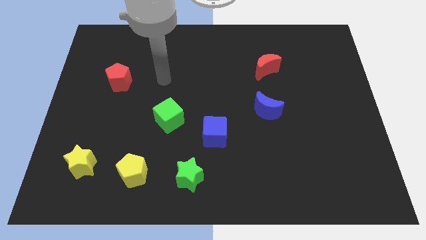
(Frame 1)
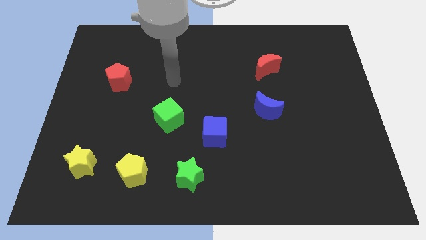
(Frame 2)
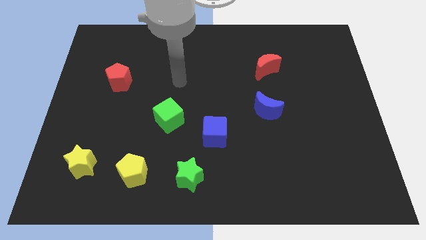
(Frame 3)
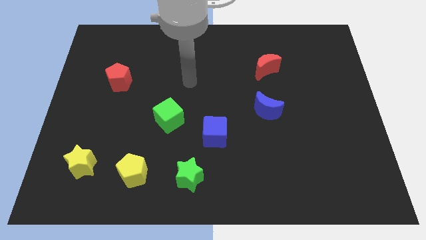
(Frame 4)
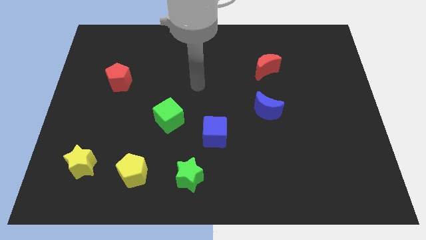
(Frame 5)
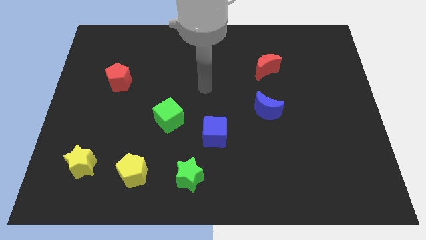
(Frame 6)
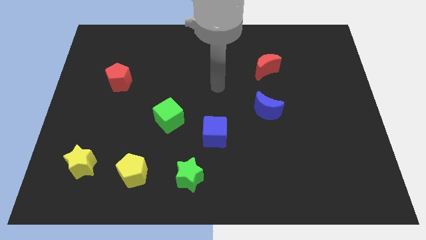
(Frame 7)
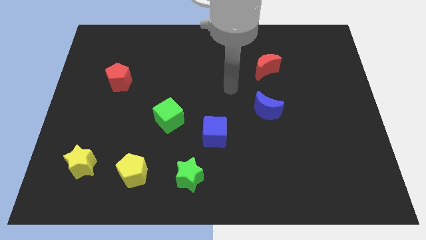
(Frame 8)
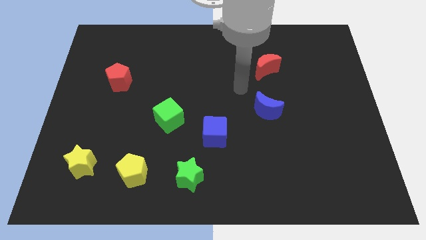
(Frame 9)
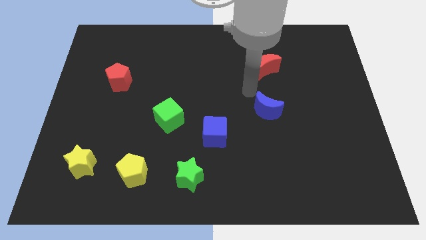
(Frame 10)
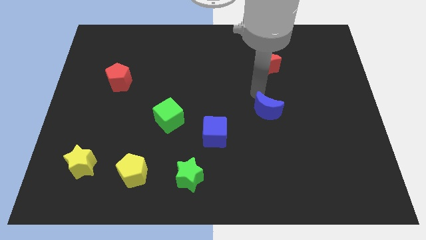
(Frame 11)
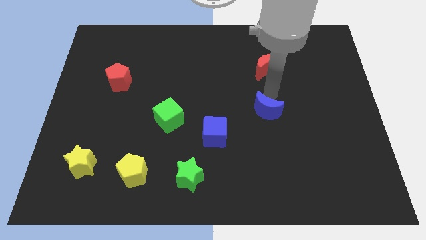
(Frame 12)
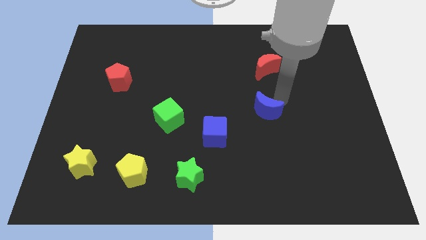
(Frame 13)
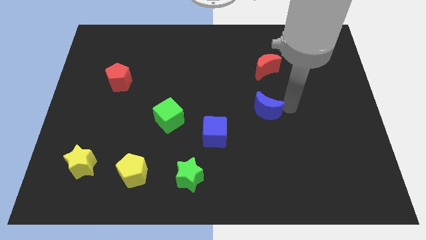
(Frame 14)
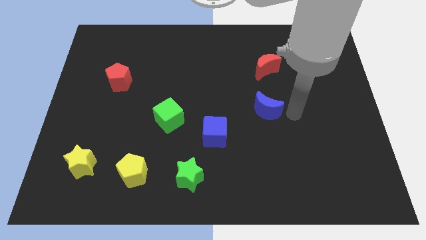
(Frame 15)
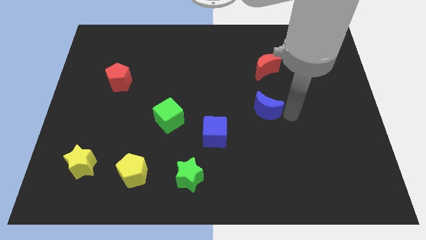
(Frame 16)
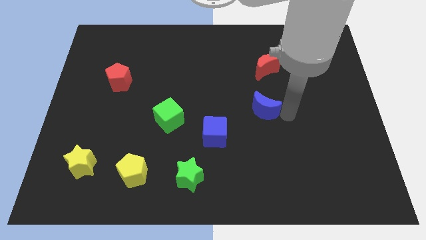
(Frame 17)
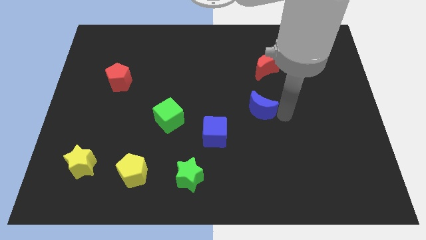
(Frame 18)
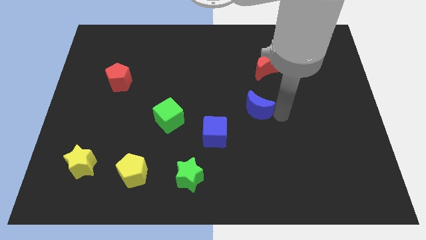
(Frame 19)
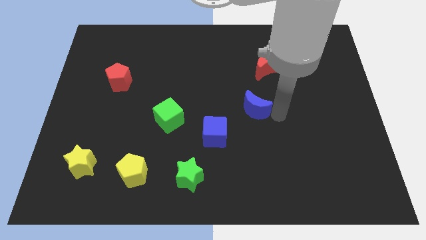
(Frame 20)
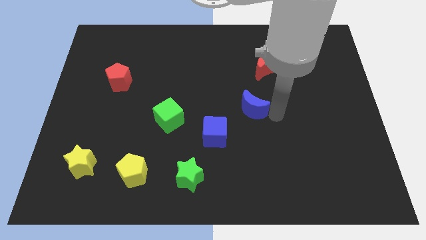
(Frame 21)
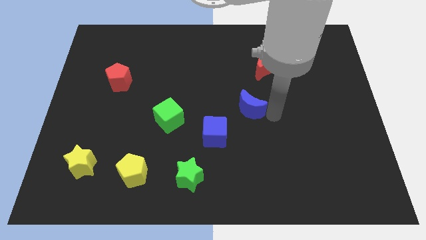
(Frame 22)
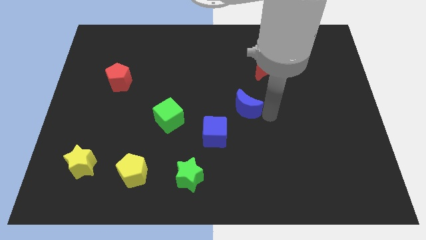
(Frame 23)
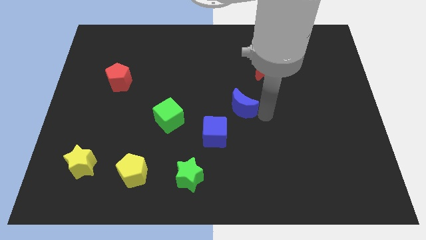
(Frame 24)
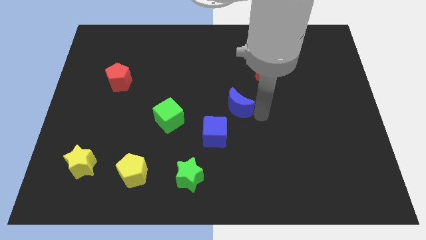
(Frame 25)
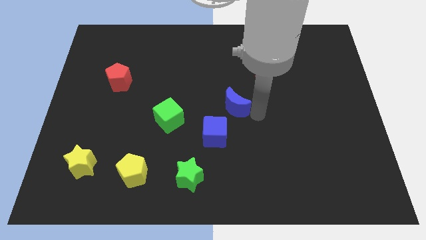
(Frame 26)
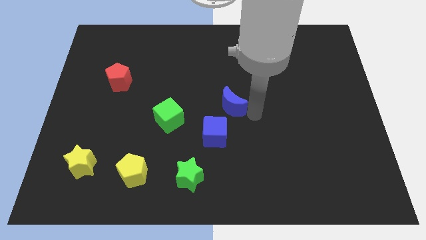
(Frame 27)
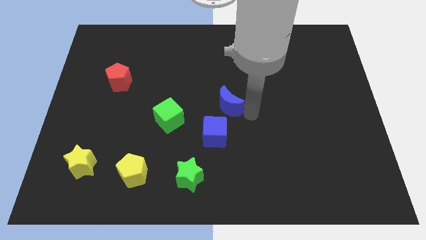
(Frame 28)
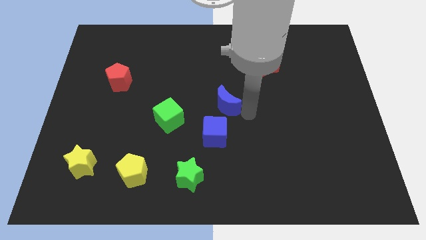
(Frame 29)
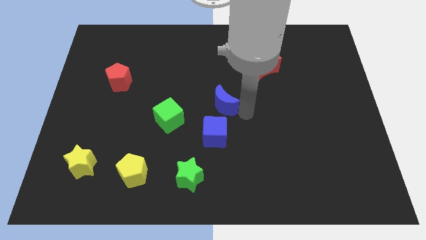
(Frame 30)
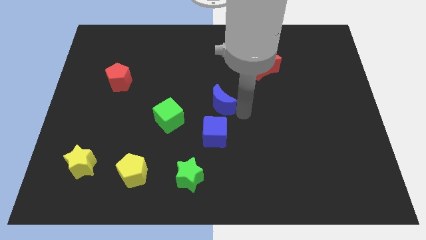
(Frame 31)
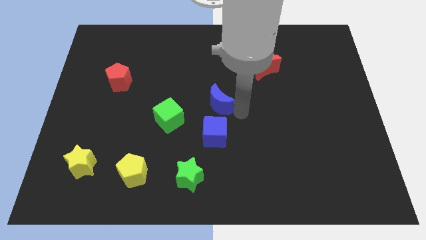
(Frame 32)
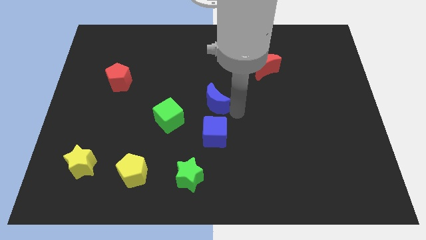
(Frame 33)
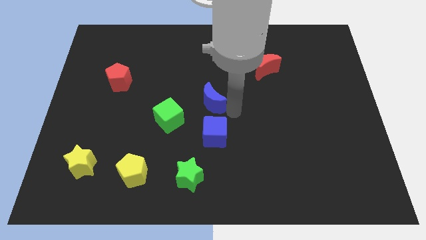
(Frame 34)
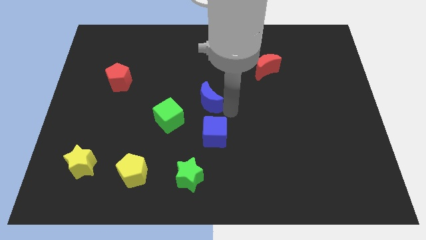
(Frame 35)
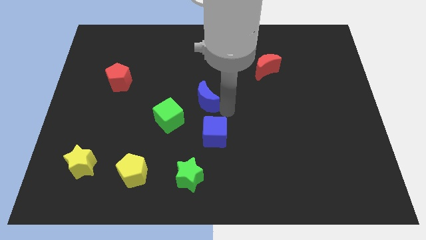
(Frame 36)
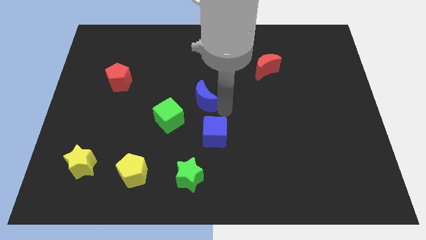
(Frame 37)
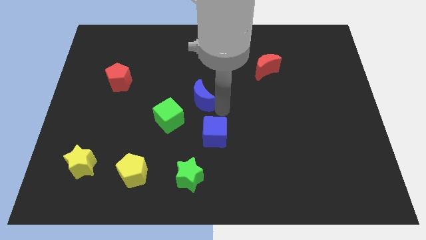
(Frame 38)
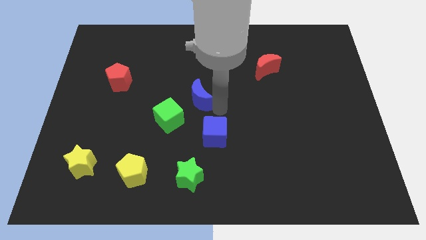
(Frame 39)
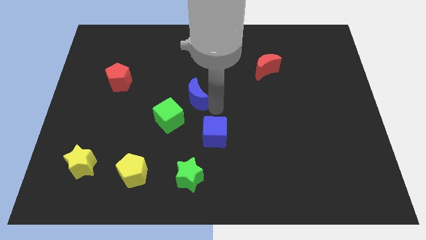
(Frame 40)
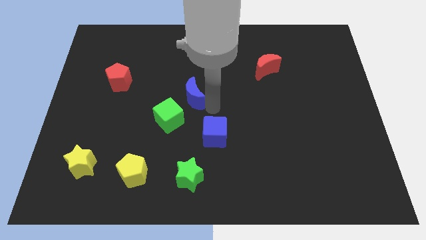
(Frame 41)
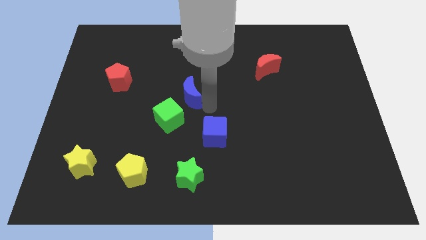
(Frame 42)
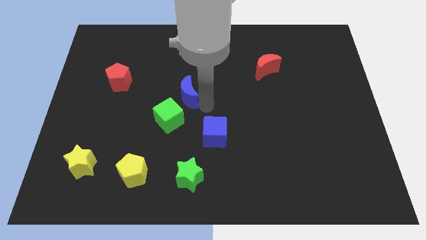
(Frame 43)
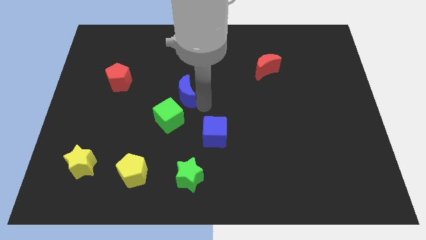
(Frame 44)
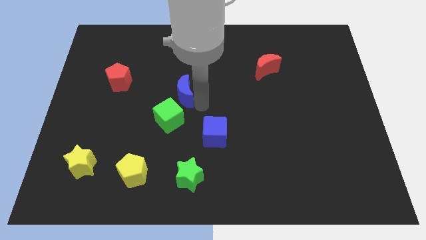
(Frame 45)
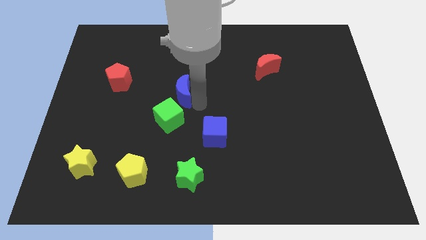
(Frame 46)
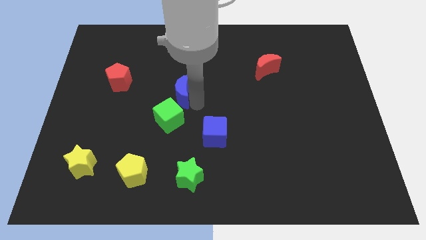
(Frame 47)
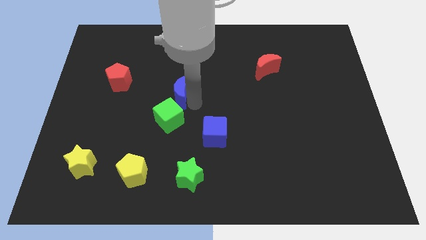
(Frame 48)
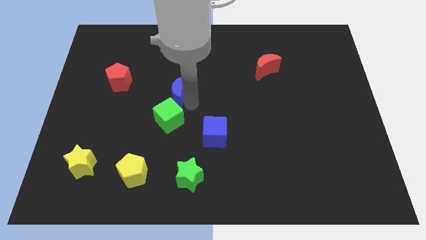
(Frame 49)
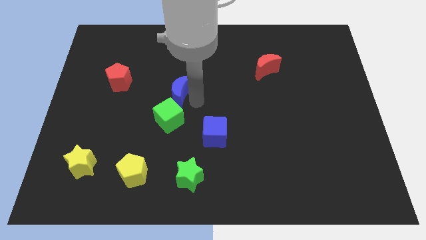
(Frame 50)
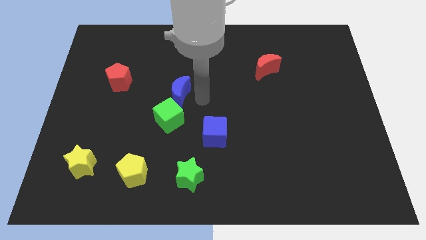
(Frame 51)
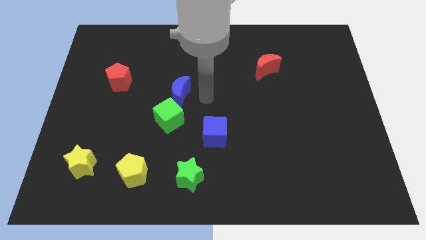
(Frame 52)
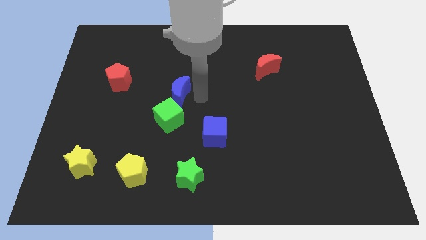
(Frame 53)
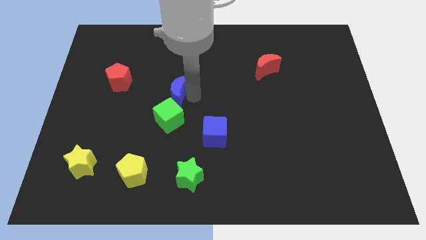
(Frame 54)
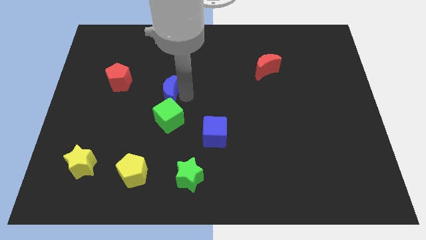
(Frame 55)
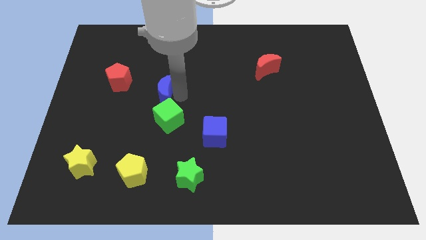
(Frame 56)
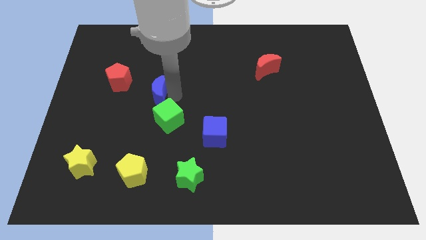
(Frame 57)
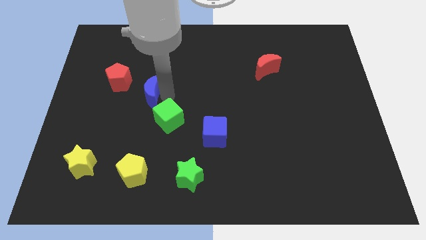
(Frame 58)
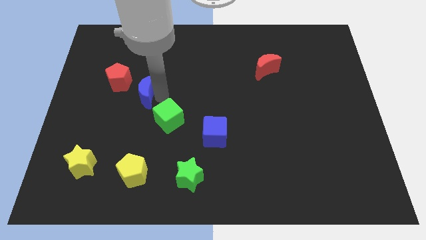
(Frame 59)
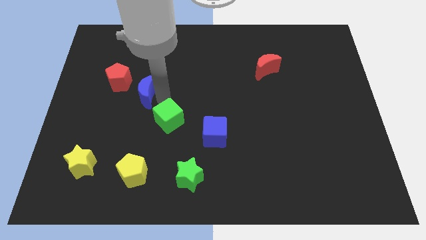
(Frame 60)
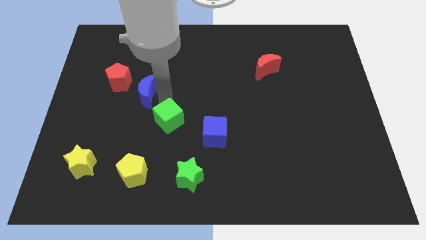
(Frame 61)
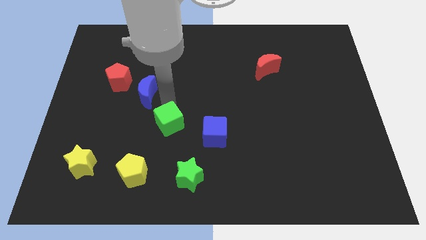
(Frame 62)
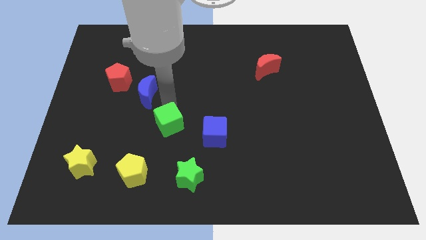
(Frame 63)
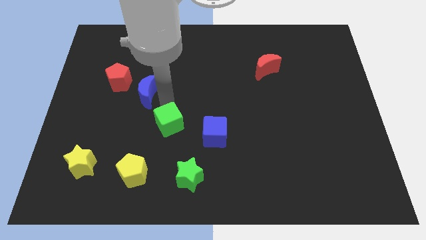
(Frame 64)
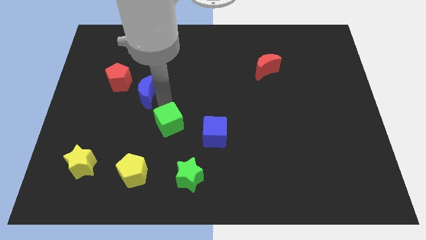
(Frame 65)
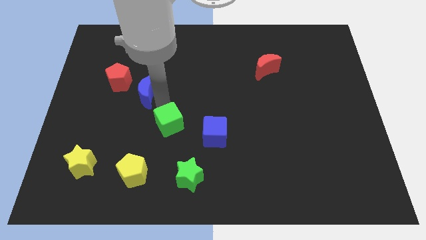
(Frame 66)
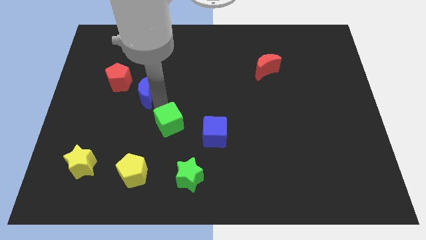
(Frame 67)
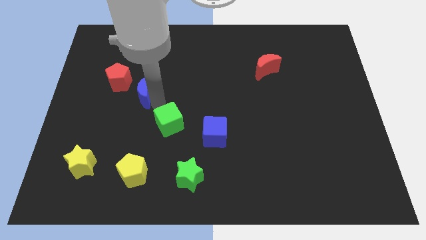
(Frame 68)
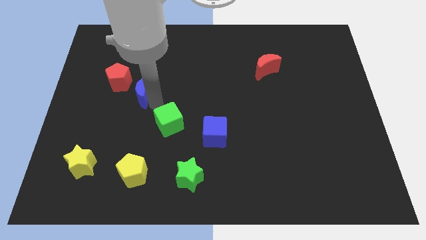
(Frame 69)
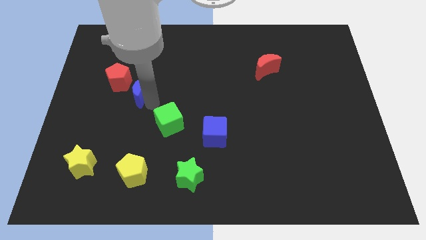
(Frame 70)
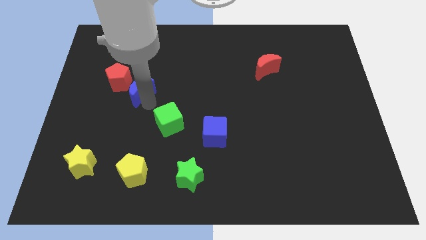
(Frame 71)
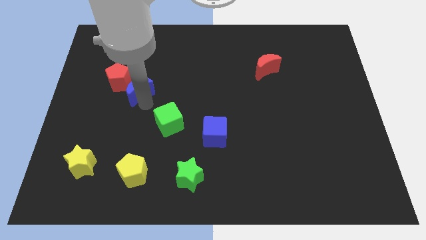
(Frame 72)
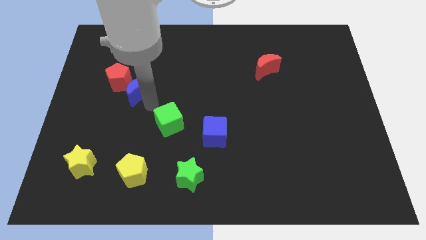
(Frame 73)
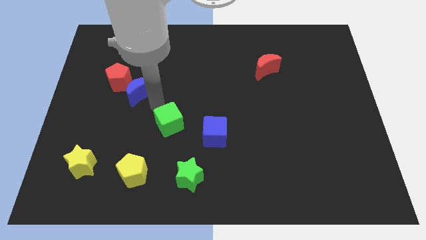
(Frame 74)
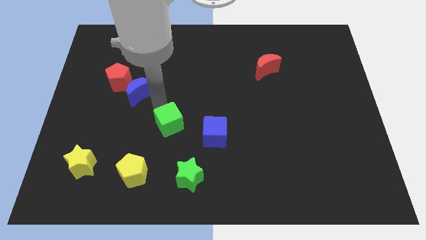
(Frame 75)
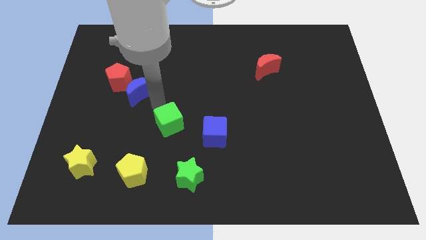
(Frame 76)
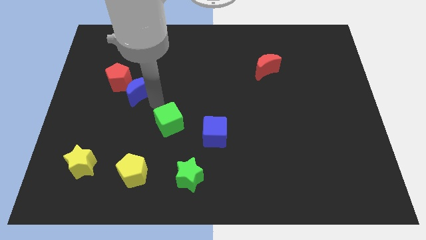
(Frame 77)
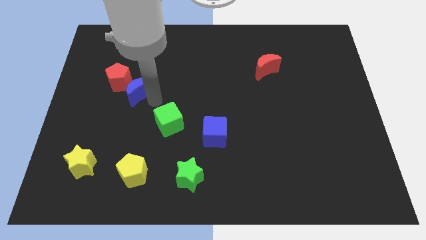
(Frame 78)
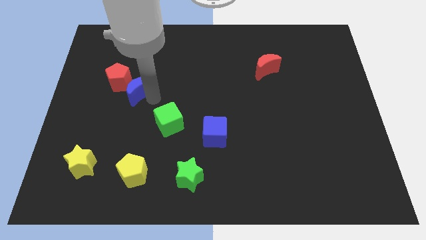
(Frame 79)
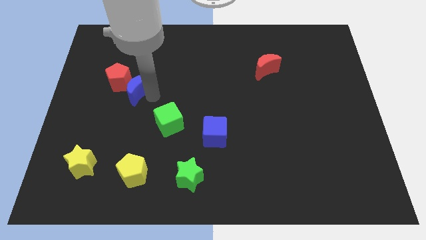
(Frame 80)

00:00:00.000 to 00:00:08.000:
push the blue moon close to the red pentagon
